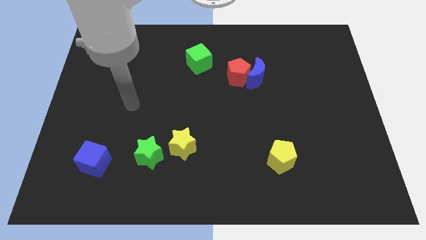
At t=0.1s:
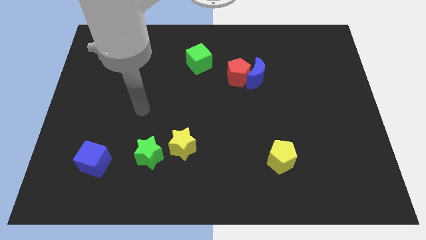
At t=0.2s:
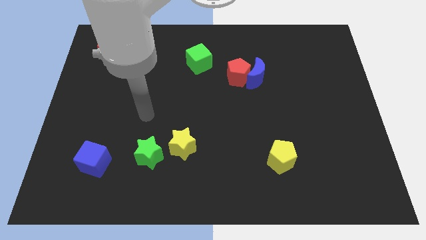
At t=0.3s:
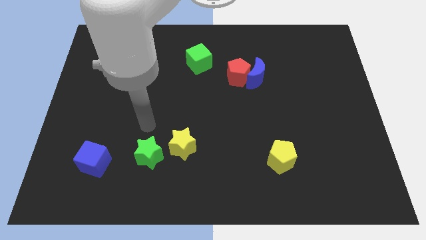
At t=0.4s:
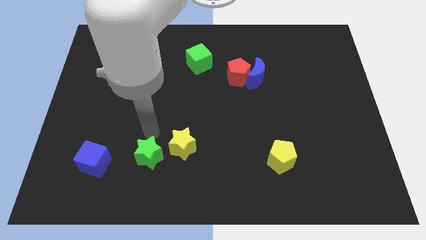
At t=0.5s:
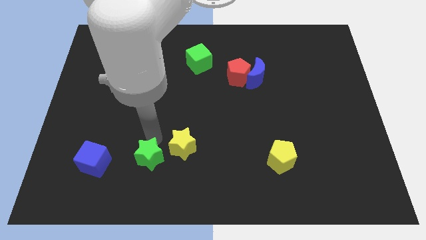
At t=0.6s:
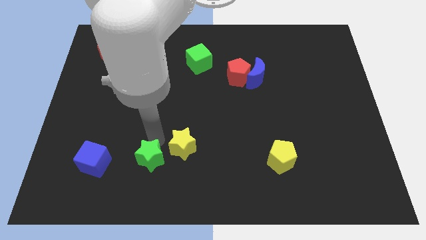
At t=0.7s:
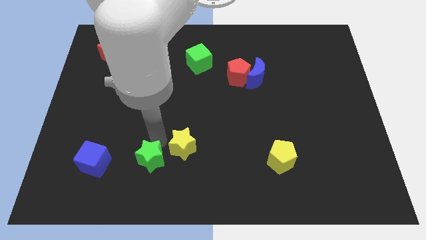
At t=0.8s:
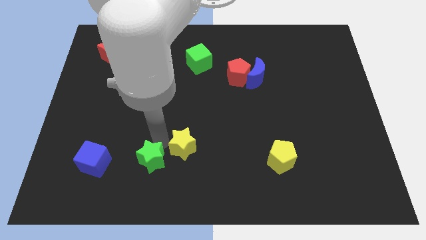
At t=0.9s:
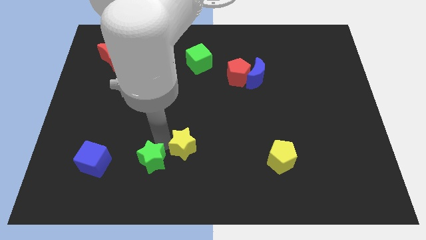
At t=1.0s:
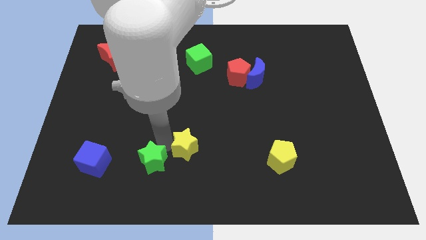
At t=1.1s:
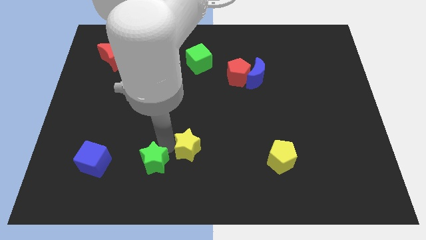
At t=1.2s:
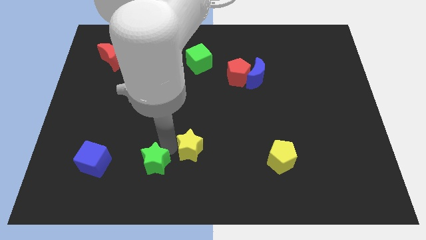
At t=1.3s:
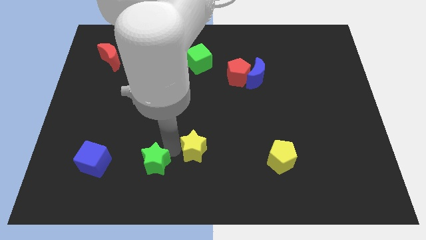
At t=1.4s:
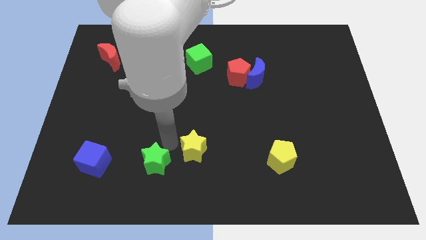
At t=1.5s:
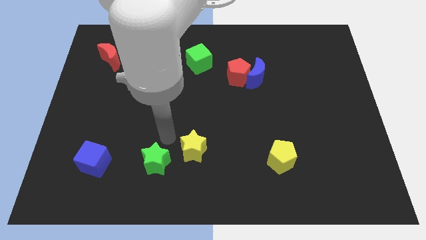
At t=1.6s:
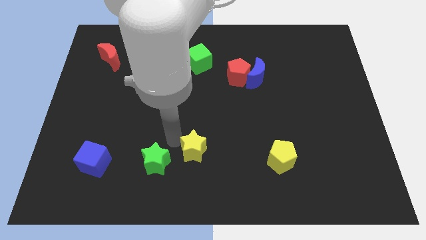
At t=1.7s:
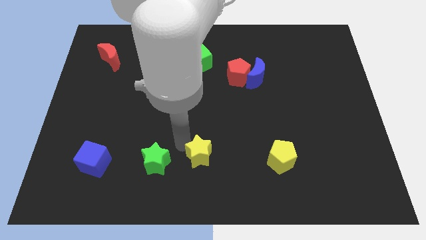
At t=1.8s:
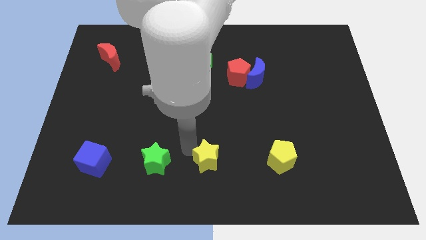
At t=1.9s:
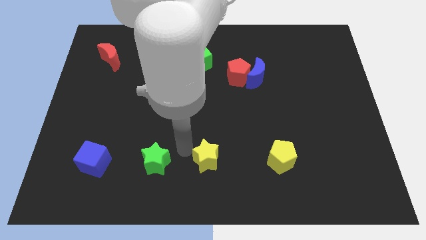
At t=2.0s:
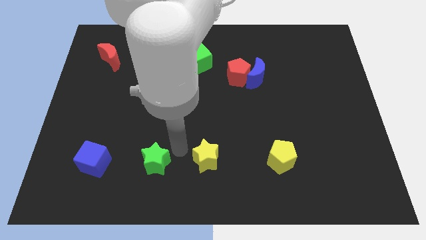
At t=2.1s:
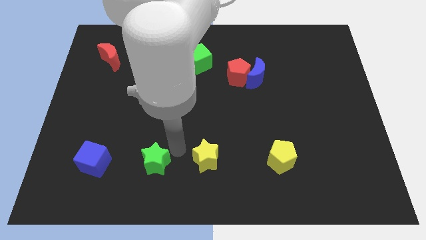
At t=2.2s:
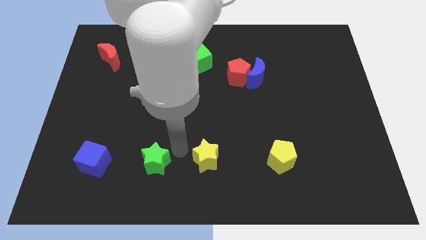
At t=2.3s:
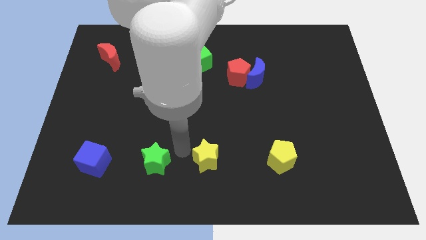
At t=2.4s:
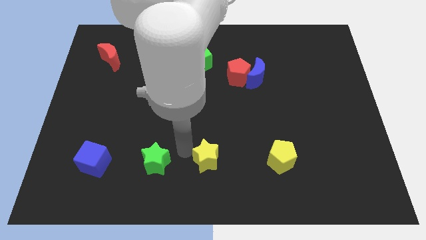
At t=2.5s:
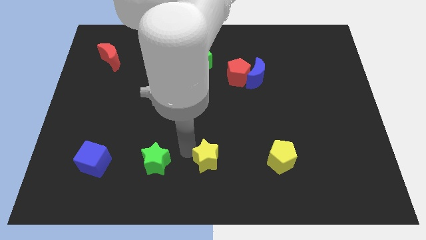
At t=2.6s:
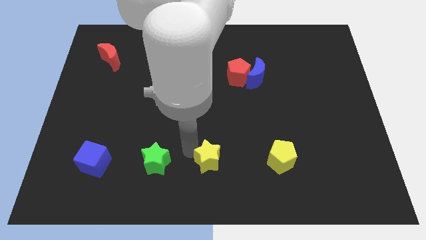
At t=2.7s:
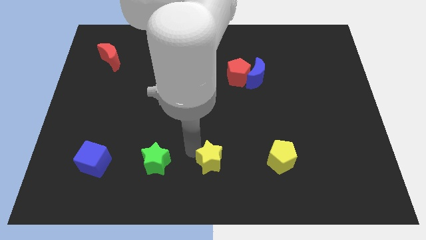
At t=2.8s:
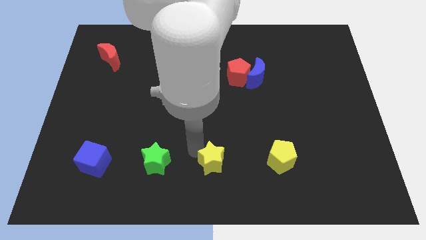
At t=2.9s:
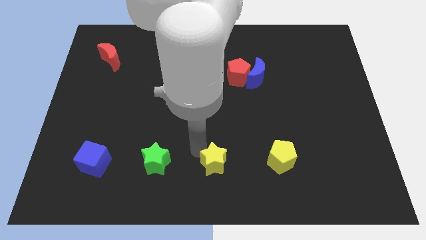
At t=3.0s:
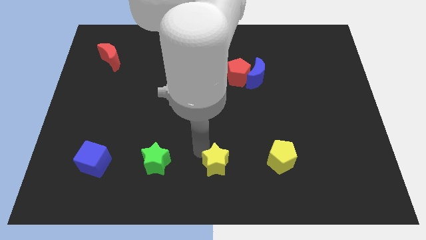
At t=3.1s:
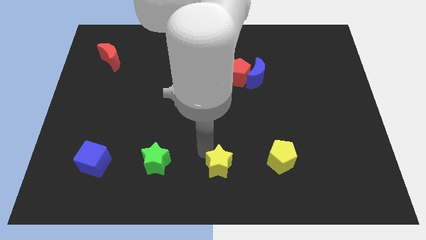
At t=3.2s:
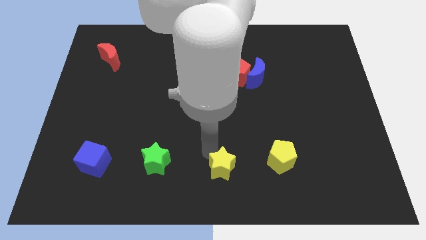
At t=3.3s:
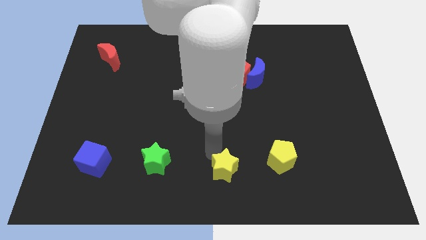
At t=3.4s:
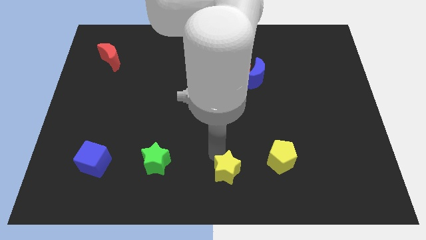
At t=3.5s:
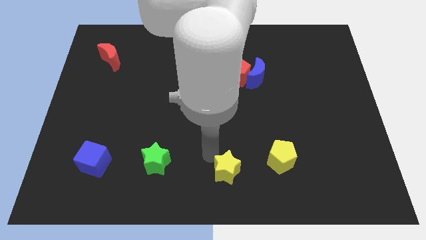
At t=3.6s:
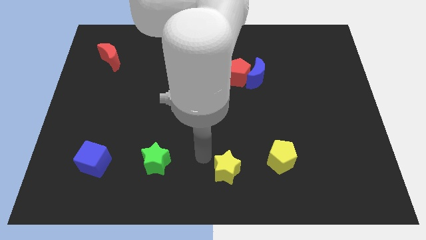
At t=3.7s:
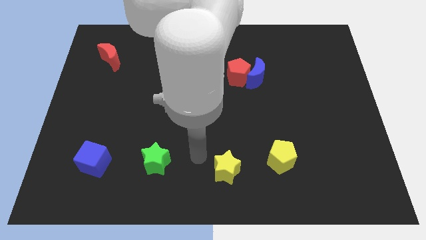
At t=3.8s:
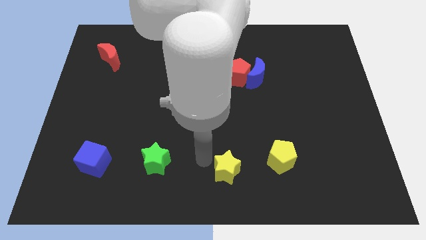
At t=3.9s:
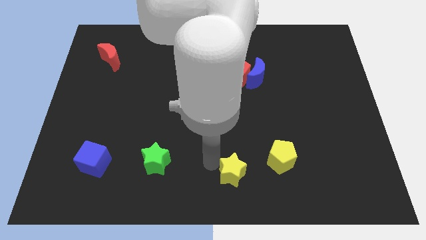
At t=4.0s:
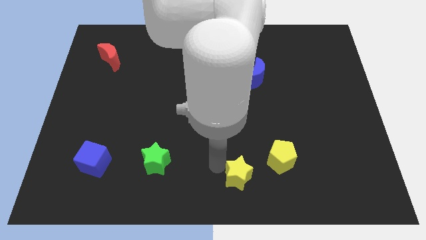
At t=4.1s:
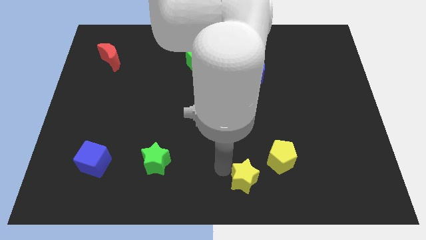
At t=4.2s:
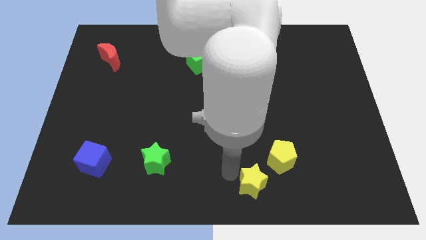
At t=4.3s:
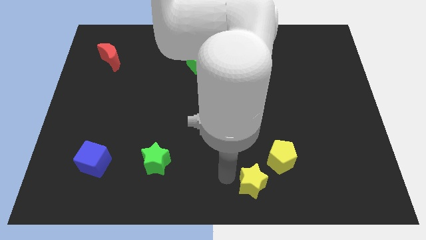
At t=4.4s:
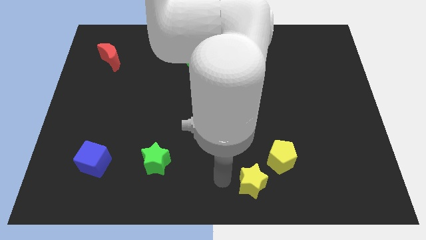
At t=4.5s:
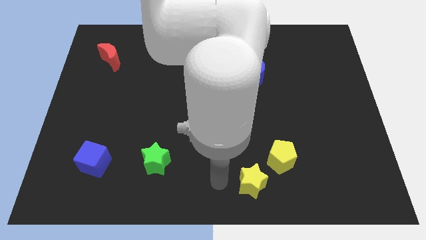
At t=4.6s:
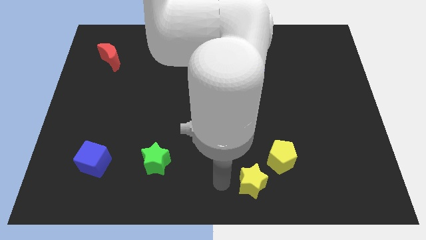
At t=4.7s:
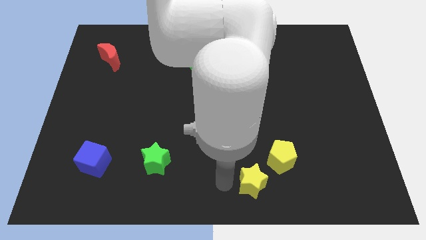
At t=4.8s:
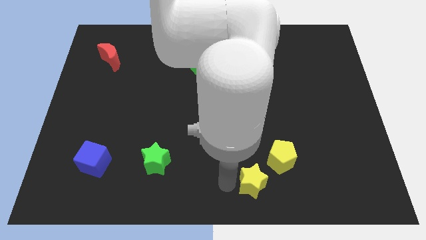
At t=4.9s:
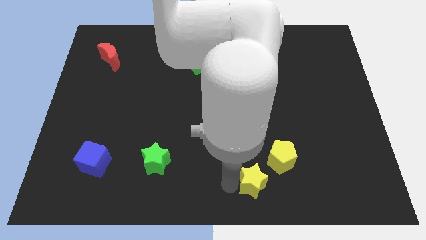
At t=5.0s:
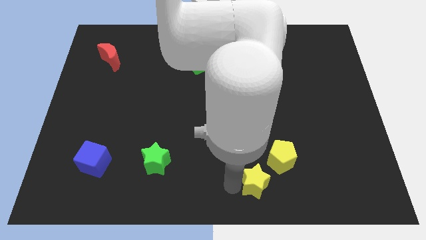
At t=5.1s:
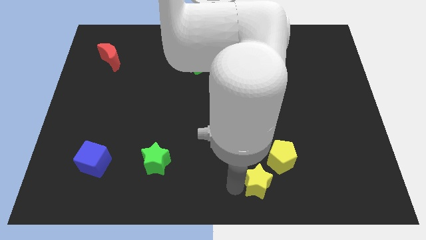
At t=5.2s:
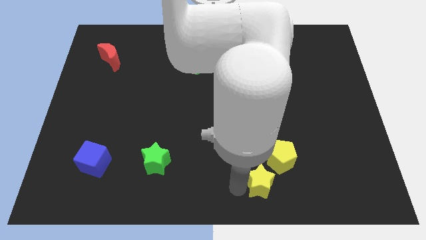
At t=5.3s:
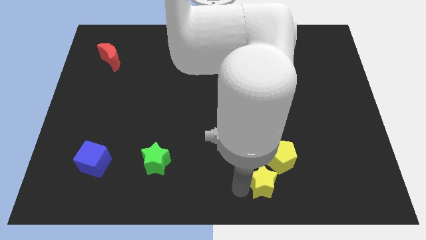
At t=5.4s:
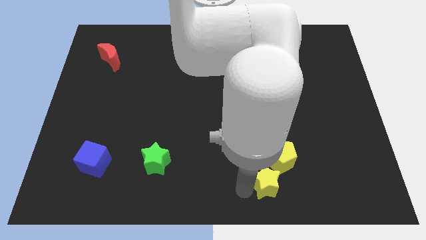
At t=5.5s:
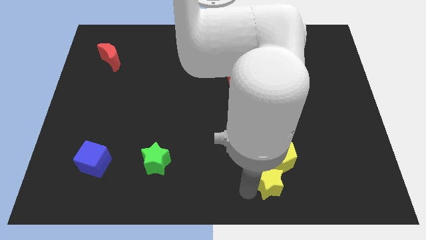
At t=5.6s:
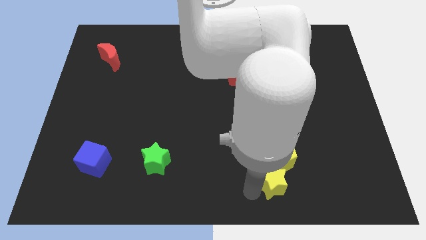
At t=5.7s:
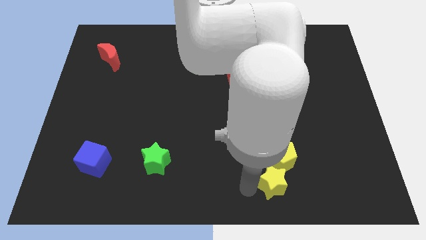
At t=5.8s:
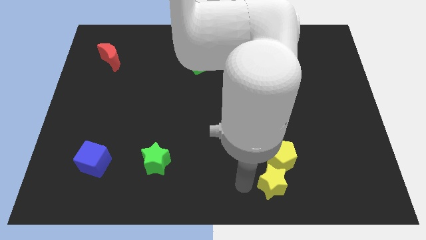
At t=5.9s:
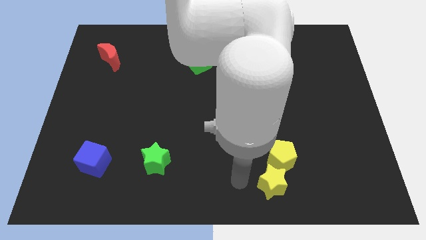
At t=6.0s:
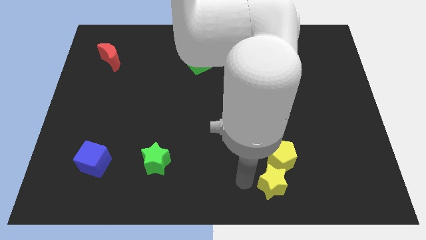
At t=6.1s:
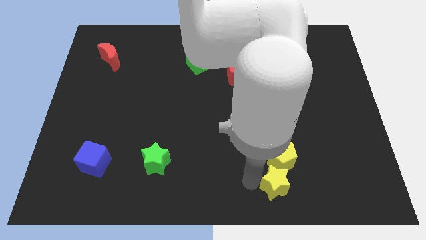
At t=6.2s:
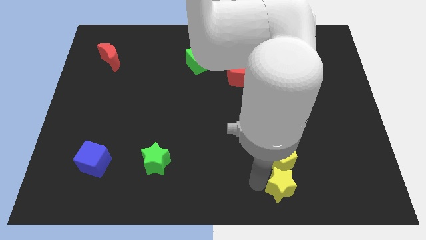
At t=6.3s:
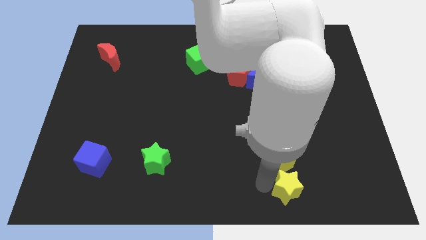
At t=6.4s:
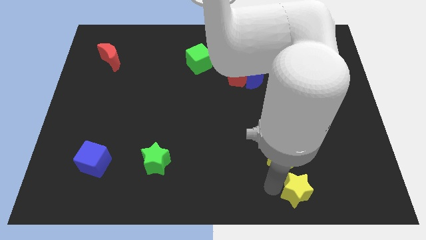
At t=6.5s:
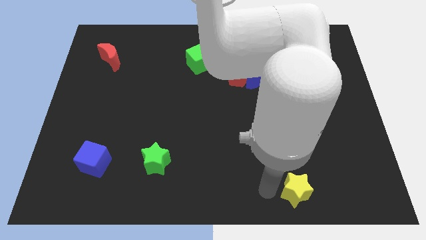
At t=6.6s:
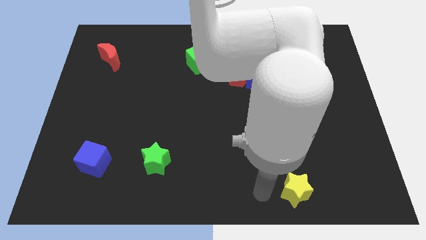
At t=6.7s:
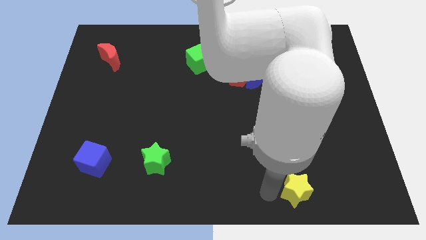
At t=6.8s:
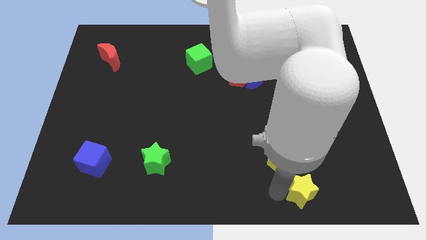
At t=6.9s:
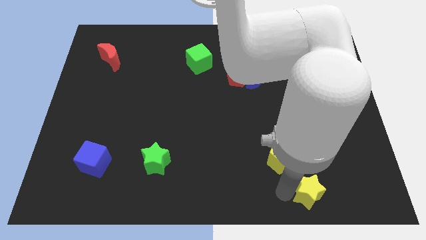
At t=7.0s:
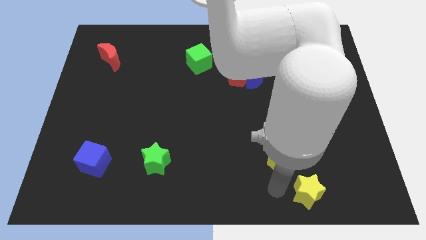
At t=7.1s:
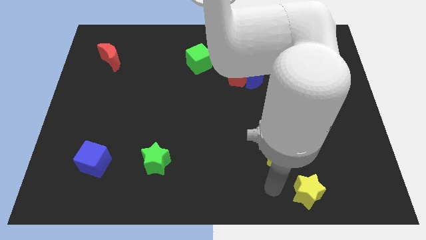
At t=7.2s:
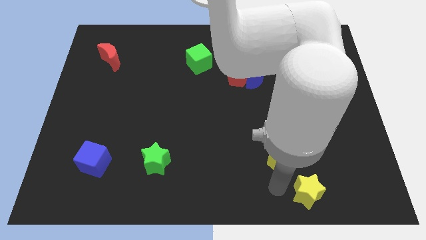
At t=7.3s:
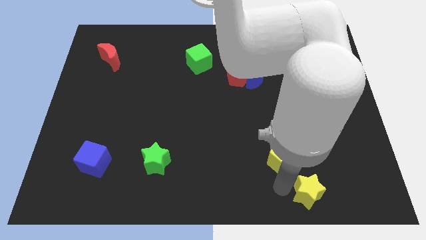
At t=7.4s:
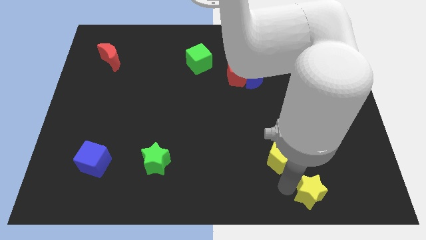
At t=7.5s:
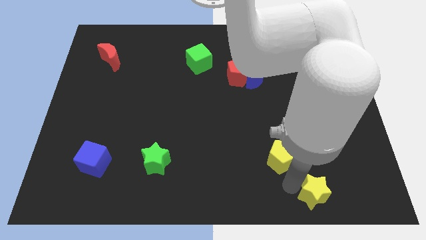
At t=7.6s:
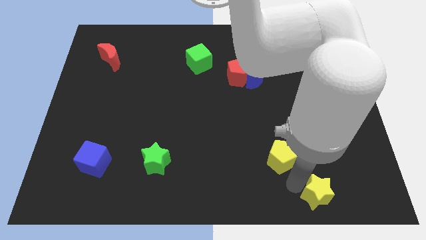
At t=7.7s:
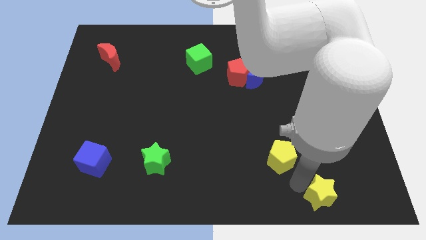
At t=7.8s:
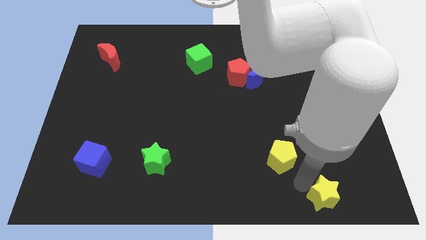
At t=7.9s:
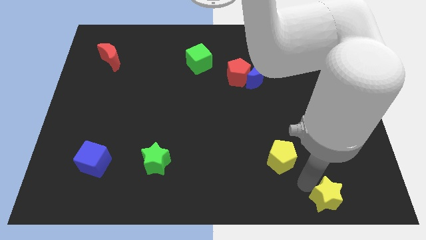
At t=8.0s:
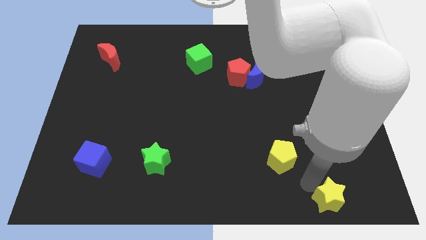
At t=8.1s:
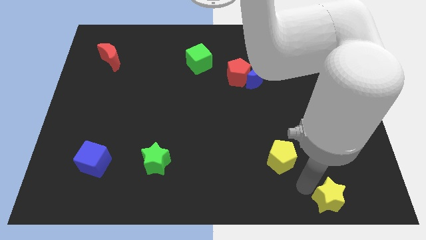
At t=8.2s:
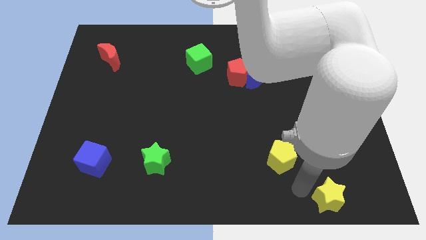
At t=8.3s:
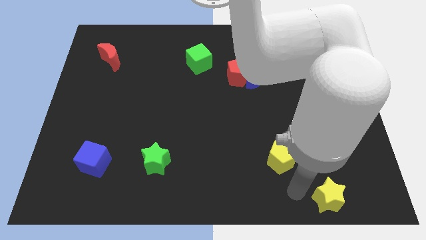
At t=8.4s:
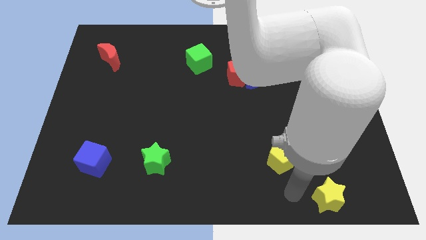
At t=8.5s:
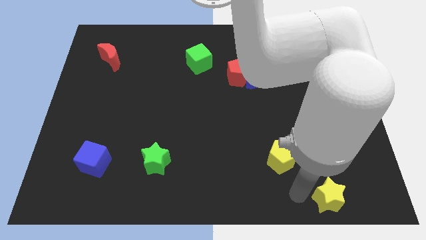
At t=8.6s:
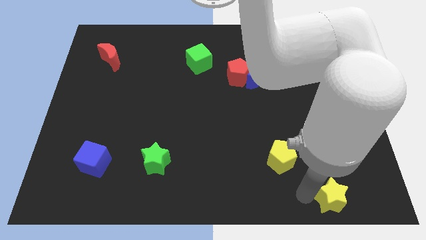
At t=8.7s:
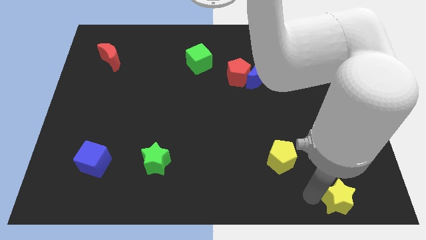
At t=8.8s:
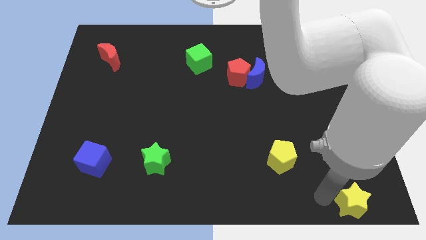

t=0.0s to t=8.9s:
put the yellow star to the lower right corner
